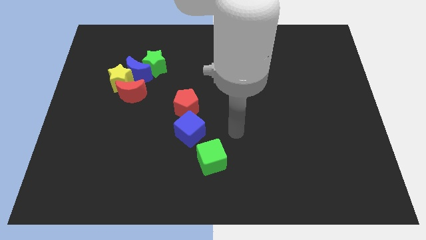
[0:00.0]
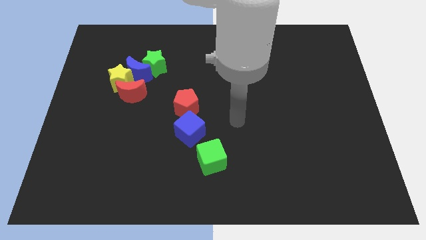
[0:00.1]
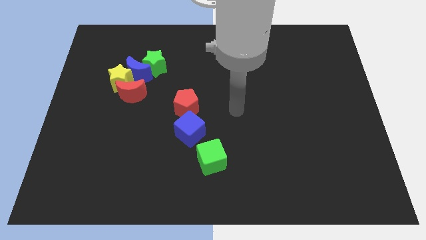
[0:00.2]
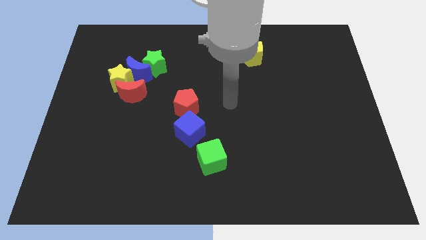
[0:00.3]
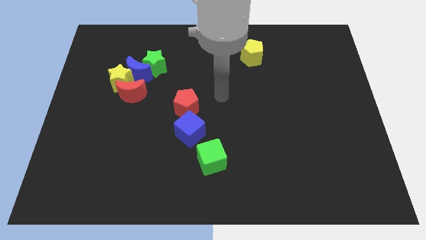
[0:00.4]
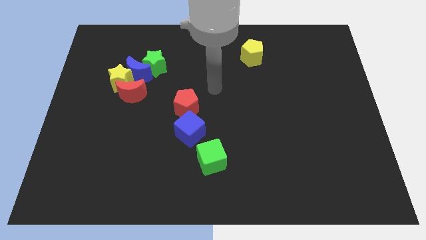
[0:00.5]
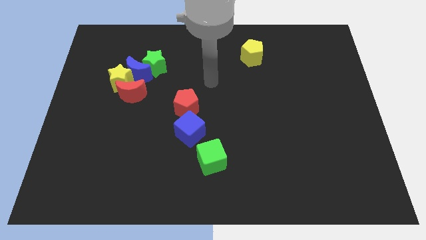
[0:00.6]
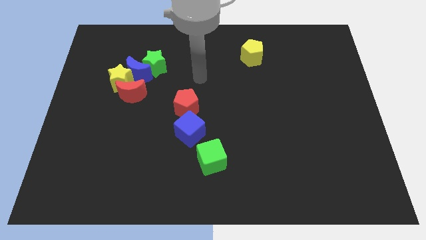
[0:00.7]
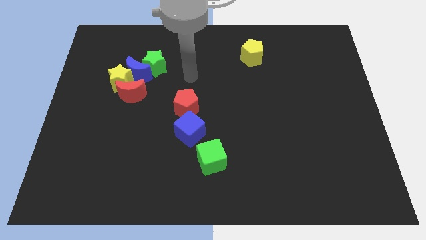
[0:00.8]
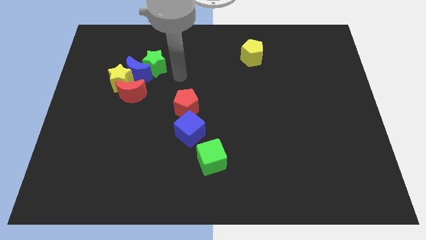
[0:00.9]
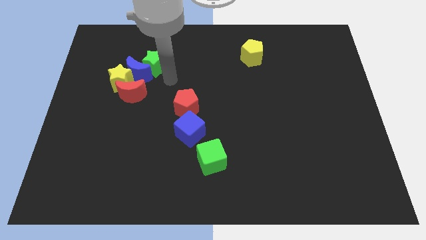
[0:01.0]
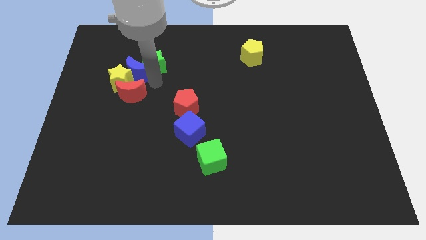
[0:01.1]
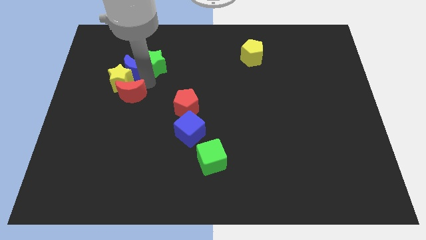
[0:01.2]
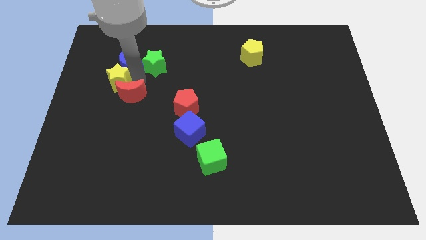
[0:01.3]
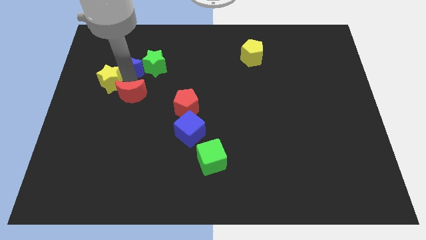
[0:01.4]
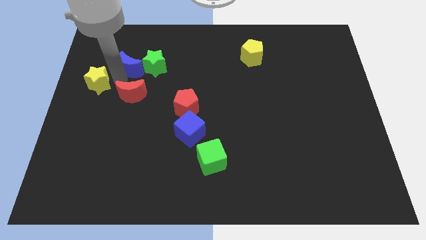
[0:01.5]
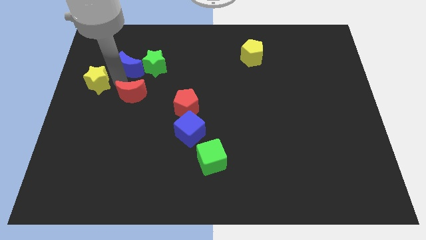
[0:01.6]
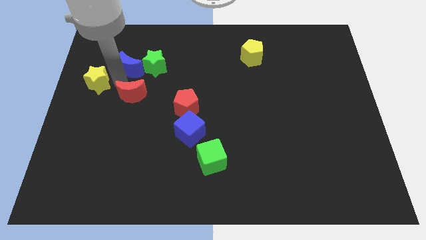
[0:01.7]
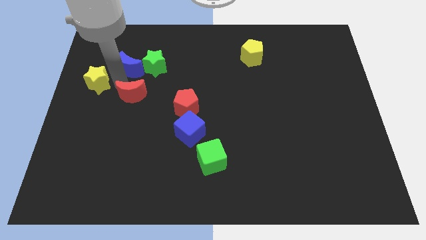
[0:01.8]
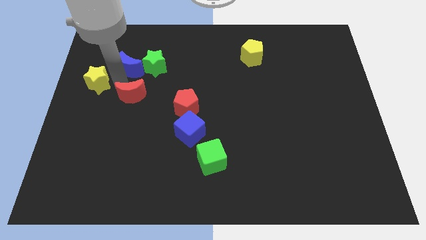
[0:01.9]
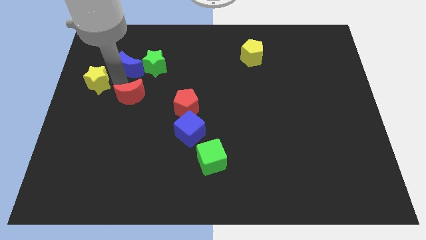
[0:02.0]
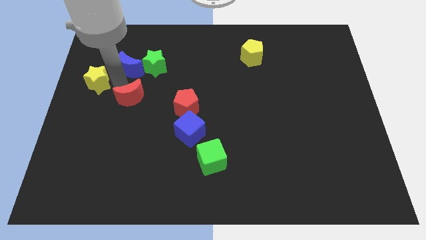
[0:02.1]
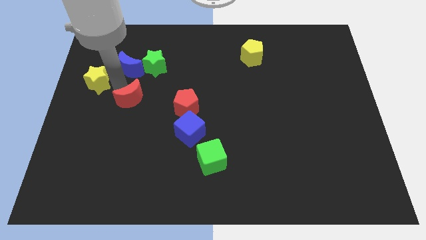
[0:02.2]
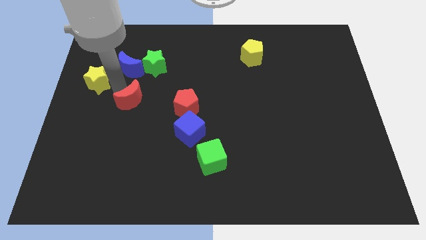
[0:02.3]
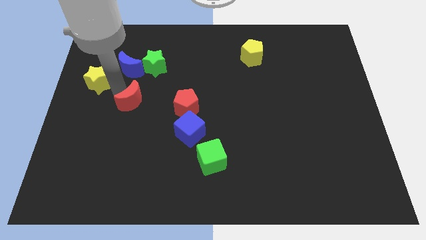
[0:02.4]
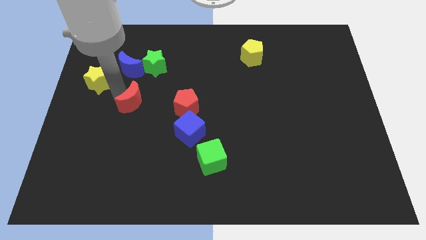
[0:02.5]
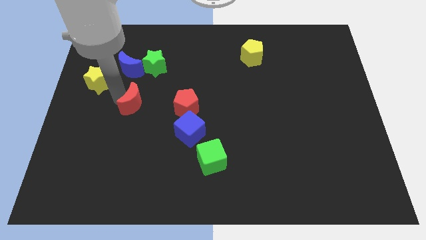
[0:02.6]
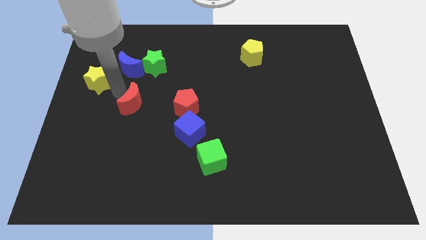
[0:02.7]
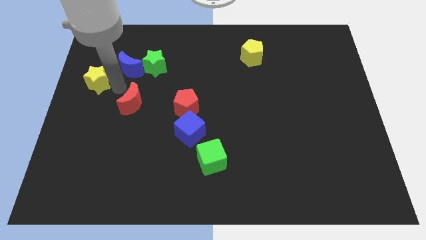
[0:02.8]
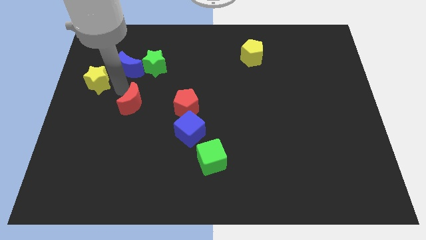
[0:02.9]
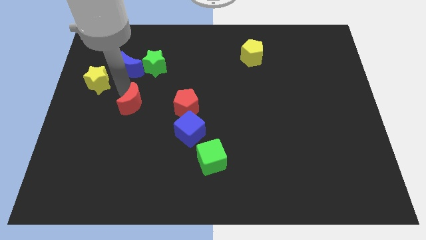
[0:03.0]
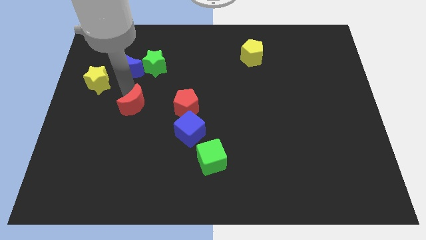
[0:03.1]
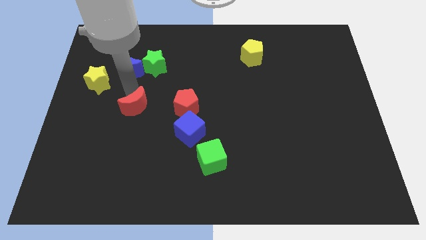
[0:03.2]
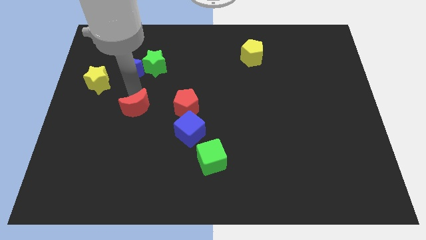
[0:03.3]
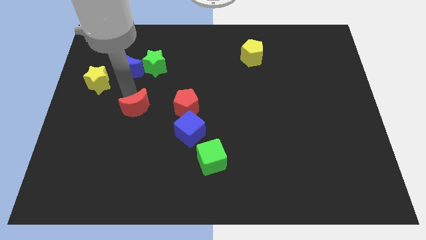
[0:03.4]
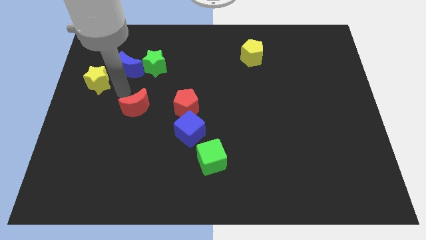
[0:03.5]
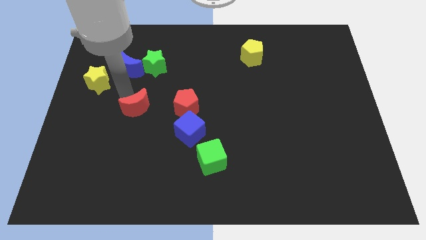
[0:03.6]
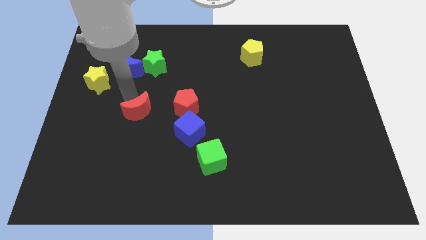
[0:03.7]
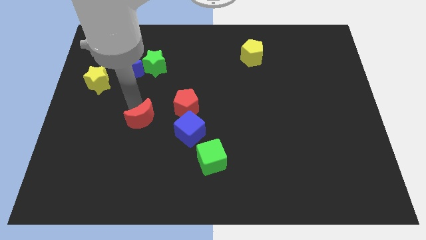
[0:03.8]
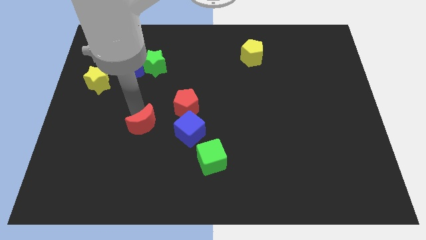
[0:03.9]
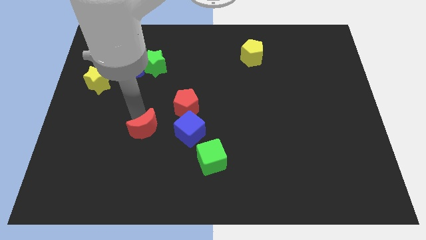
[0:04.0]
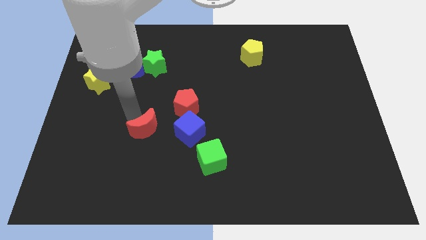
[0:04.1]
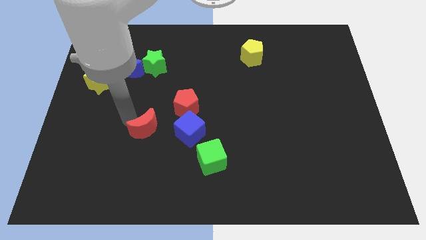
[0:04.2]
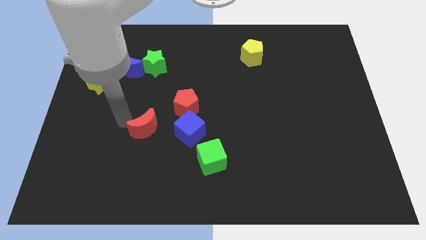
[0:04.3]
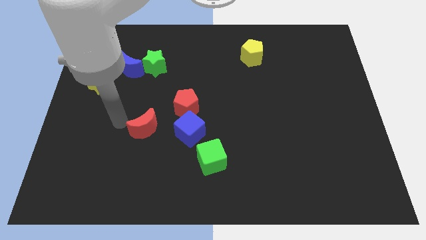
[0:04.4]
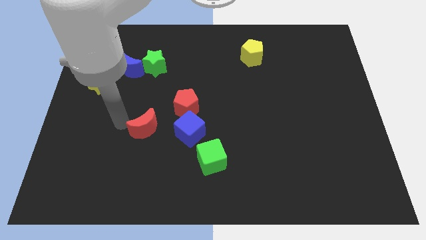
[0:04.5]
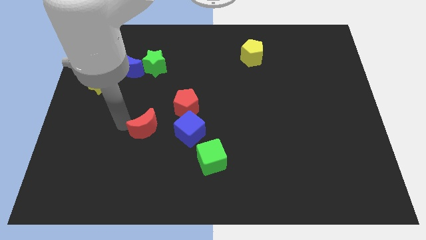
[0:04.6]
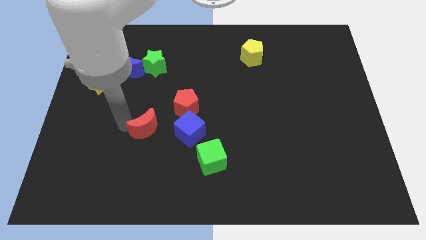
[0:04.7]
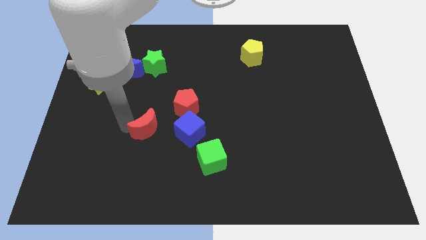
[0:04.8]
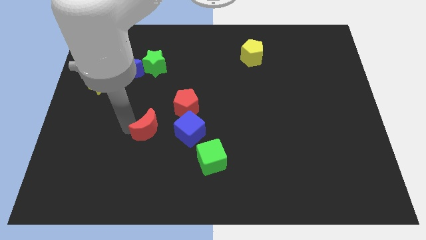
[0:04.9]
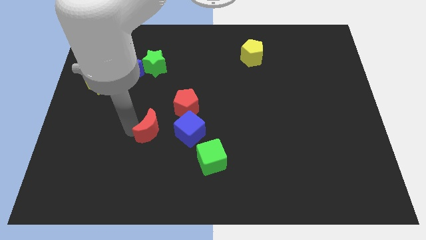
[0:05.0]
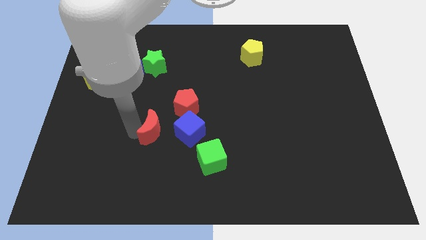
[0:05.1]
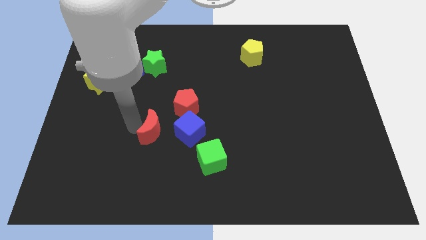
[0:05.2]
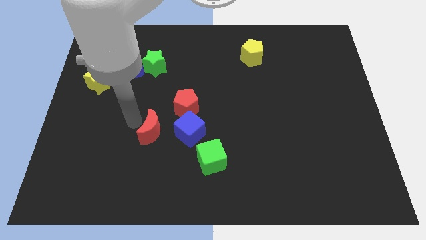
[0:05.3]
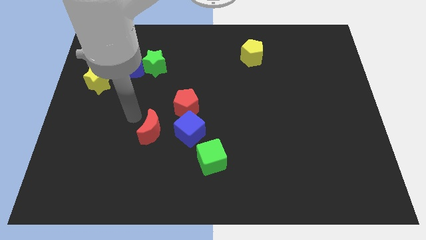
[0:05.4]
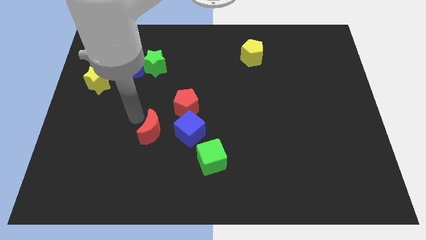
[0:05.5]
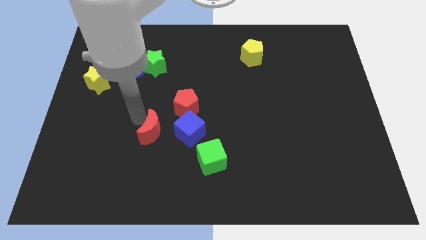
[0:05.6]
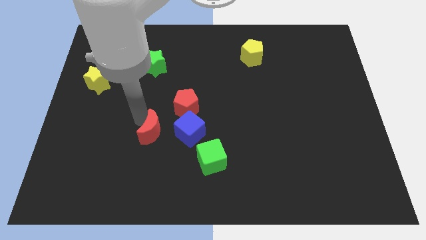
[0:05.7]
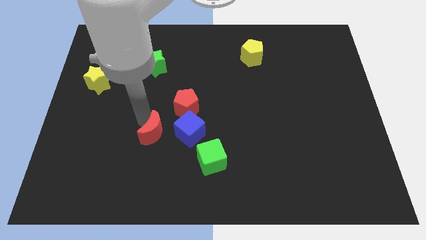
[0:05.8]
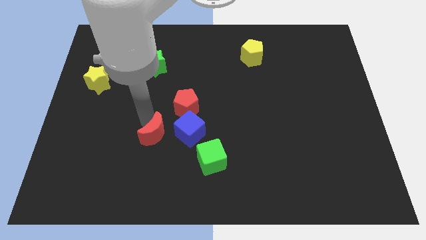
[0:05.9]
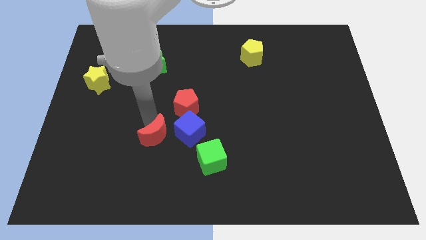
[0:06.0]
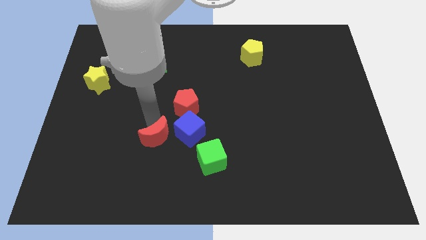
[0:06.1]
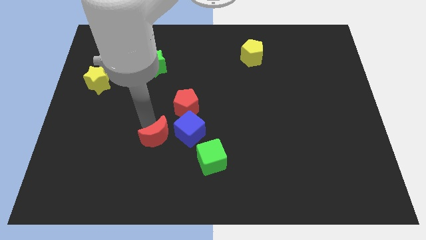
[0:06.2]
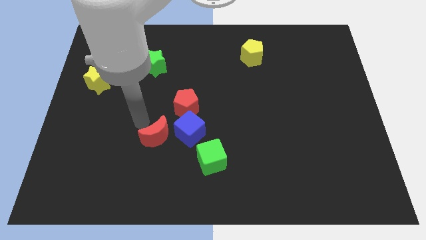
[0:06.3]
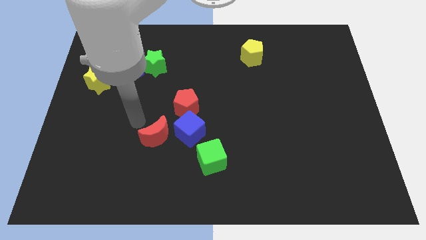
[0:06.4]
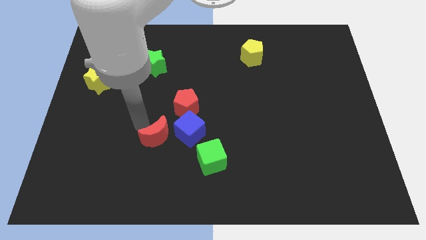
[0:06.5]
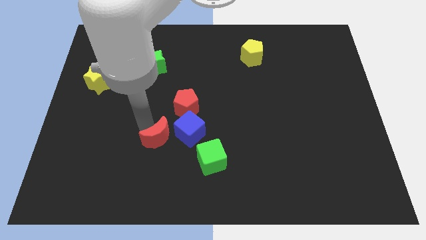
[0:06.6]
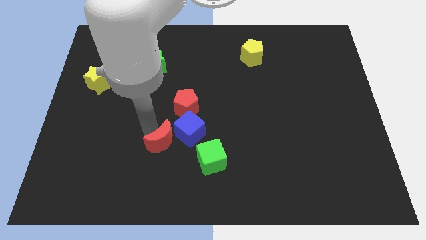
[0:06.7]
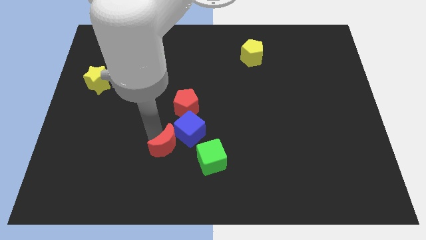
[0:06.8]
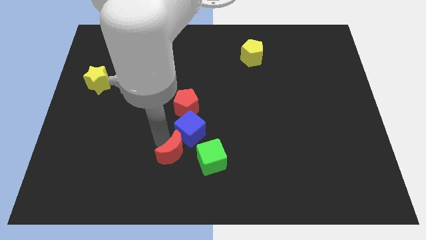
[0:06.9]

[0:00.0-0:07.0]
push the red moon below the blue cube
